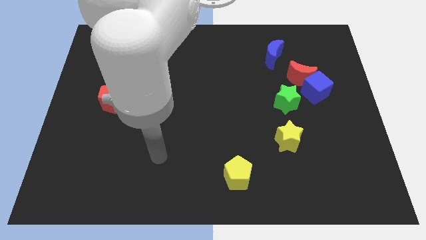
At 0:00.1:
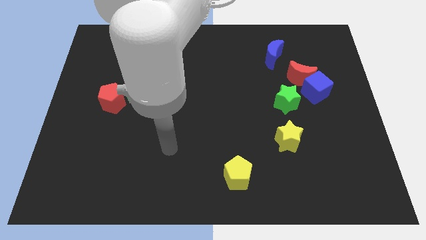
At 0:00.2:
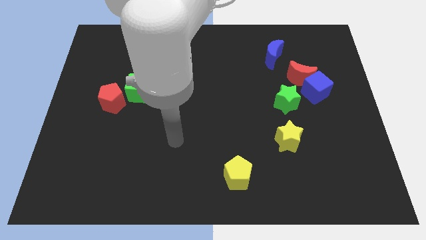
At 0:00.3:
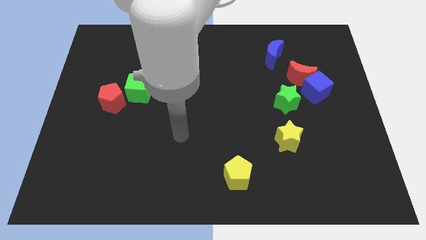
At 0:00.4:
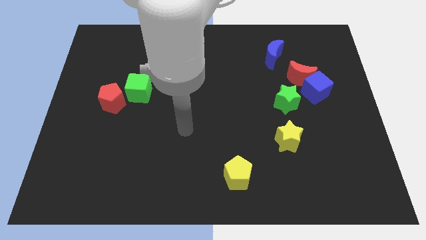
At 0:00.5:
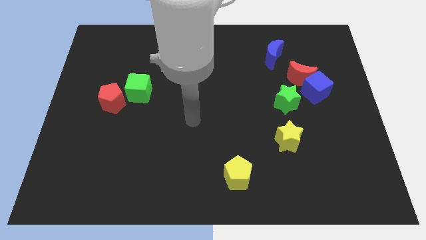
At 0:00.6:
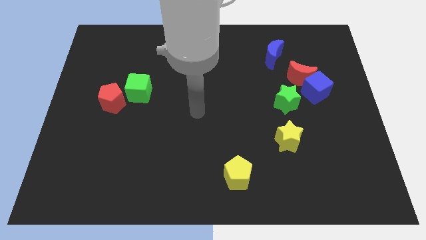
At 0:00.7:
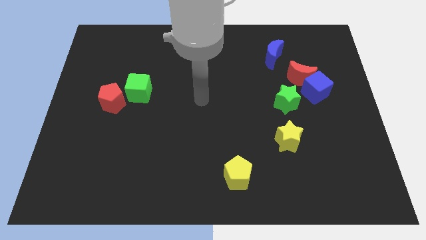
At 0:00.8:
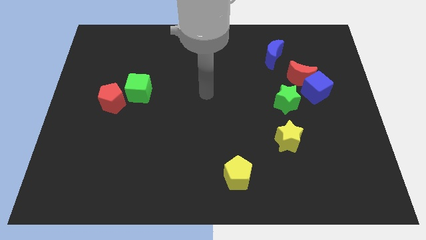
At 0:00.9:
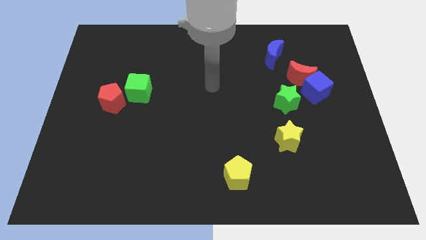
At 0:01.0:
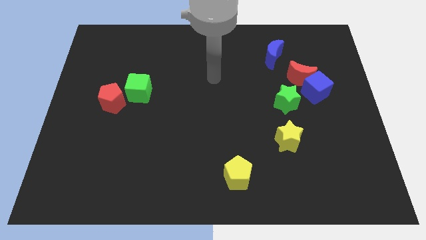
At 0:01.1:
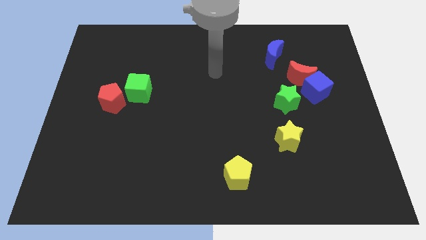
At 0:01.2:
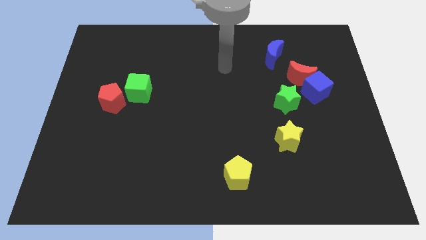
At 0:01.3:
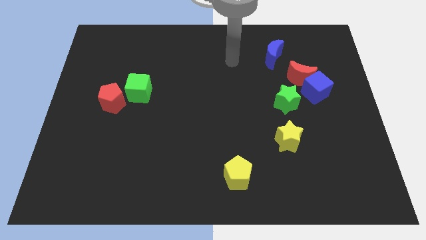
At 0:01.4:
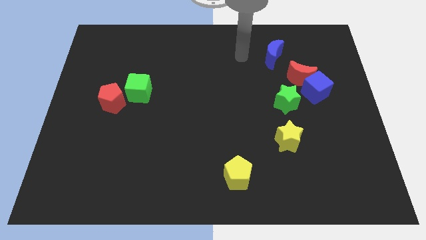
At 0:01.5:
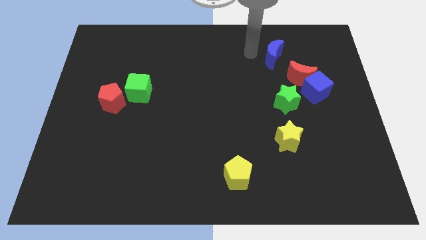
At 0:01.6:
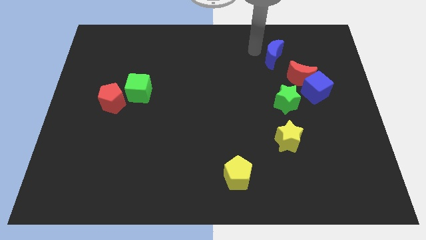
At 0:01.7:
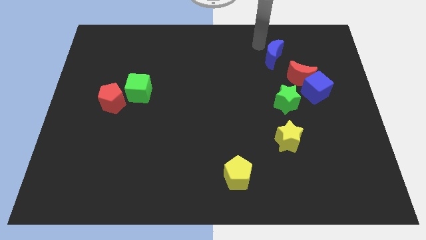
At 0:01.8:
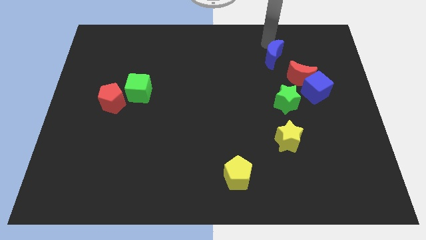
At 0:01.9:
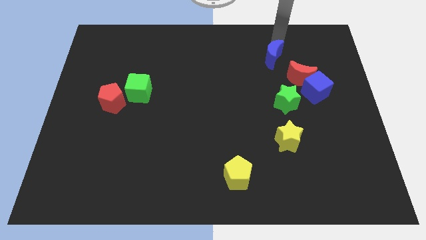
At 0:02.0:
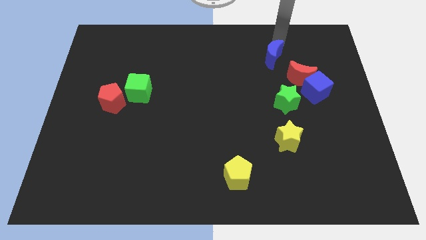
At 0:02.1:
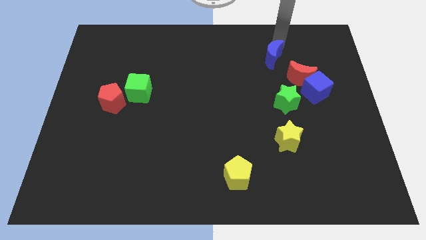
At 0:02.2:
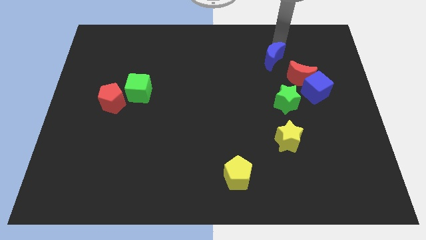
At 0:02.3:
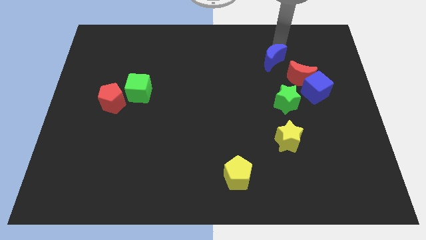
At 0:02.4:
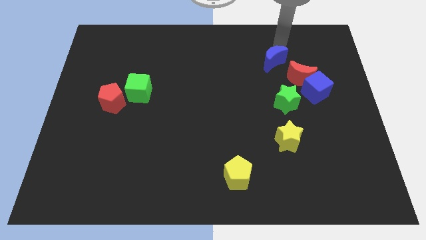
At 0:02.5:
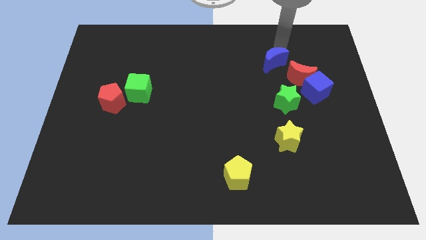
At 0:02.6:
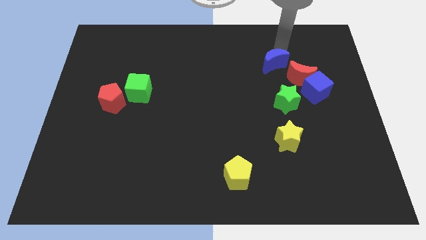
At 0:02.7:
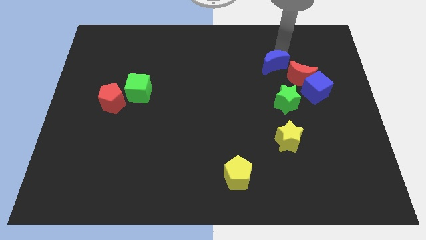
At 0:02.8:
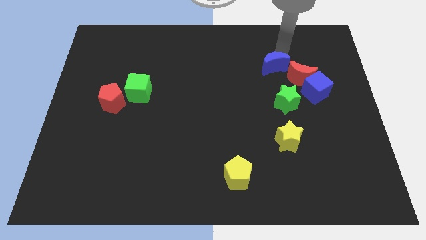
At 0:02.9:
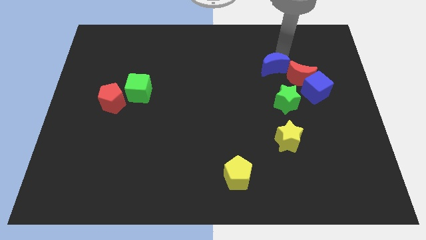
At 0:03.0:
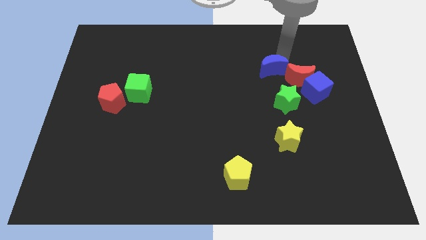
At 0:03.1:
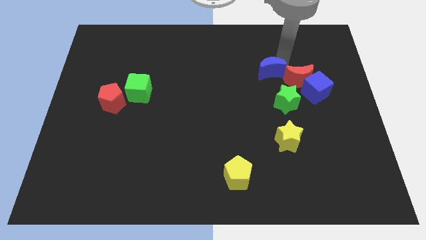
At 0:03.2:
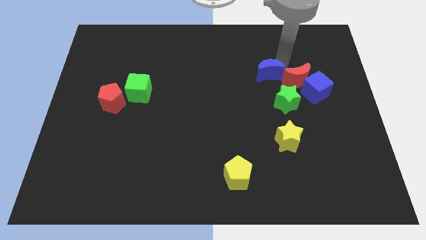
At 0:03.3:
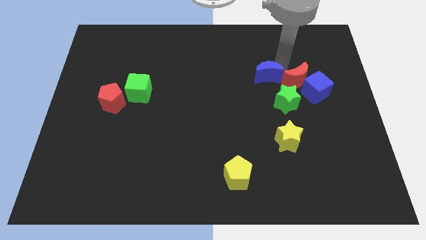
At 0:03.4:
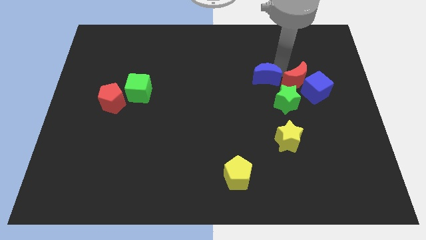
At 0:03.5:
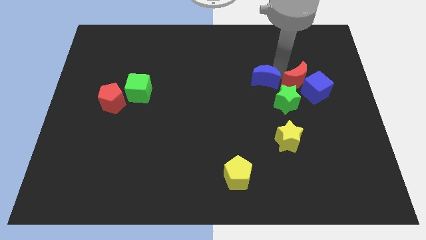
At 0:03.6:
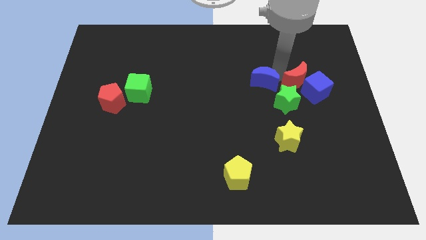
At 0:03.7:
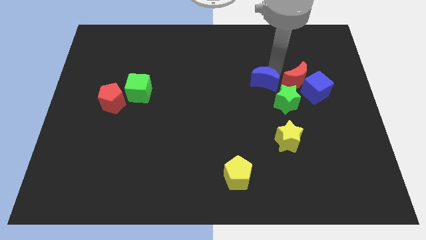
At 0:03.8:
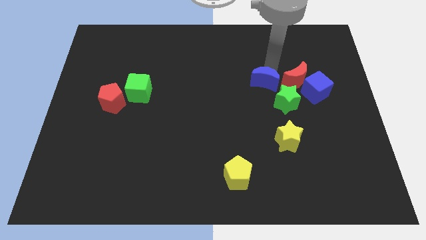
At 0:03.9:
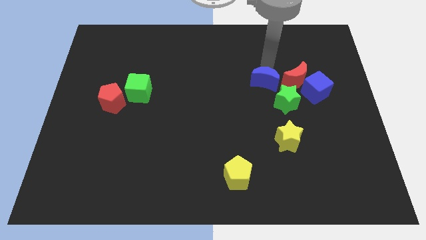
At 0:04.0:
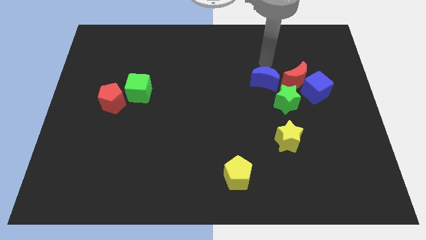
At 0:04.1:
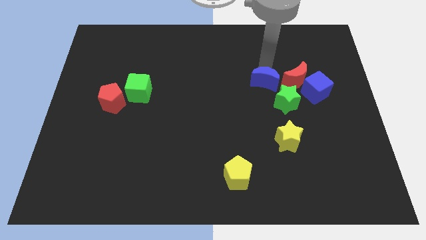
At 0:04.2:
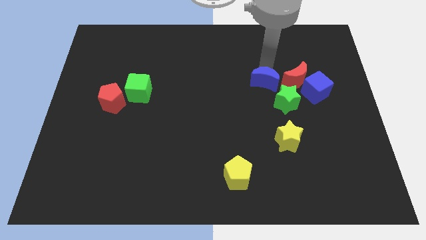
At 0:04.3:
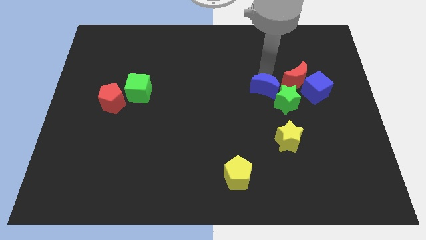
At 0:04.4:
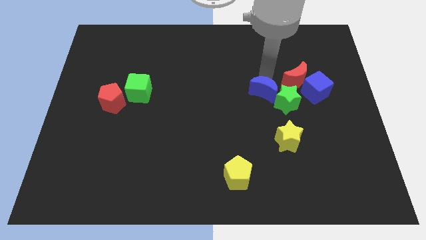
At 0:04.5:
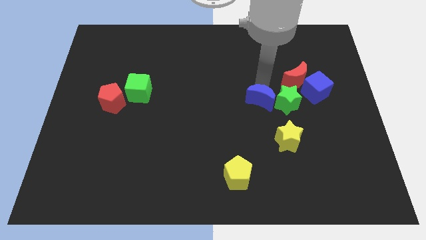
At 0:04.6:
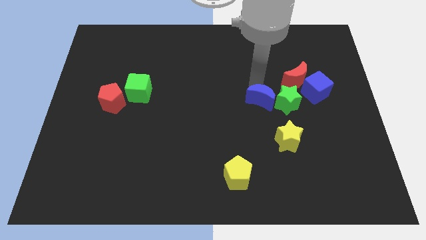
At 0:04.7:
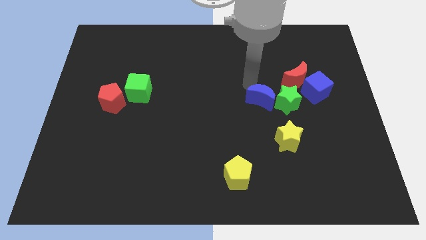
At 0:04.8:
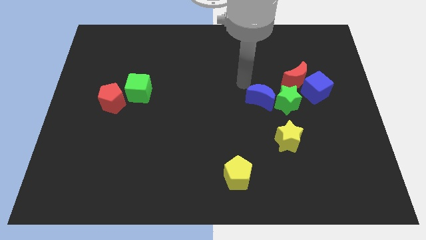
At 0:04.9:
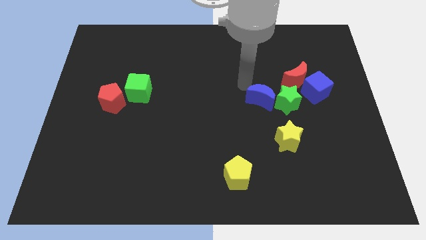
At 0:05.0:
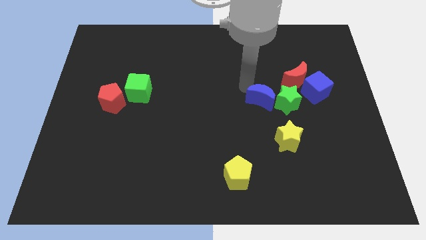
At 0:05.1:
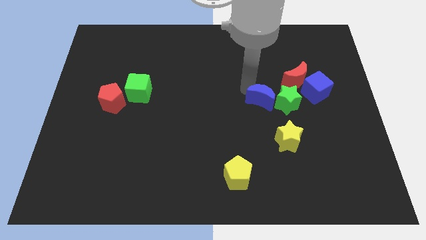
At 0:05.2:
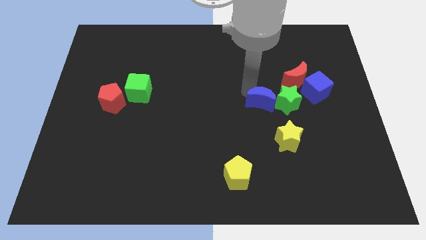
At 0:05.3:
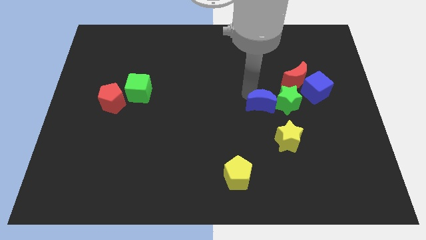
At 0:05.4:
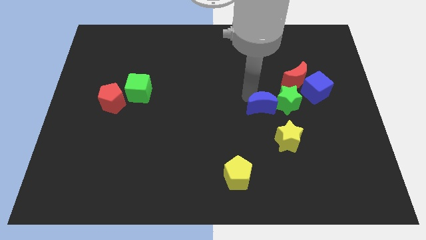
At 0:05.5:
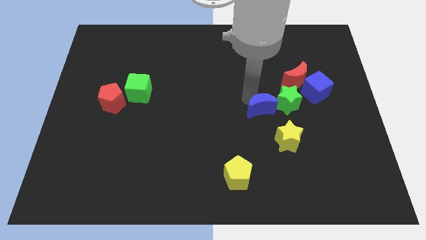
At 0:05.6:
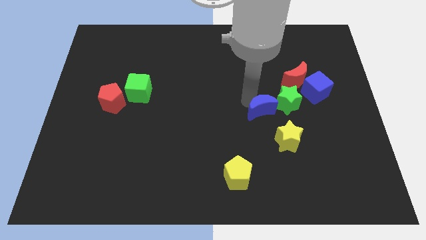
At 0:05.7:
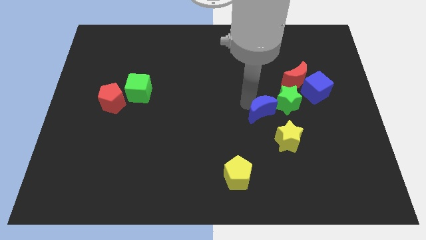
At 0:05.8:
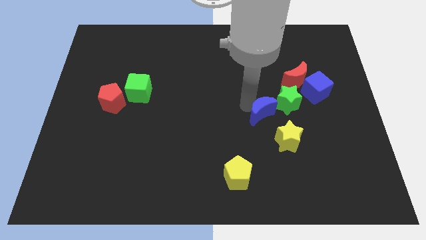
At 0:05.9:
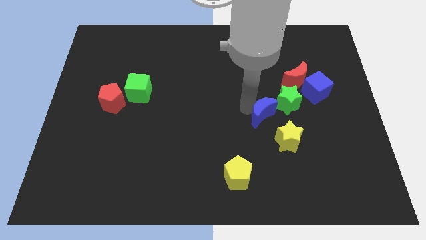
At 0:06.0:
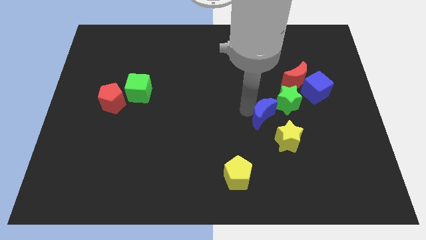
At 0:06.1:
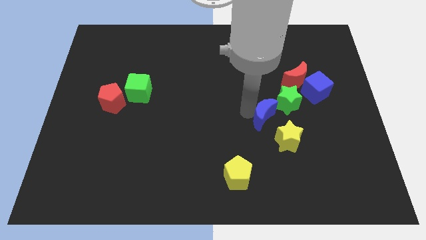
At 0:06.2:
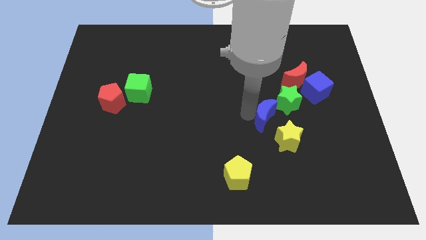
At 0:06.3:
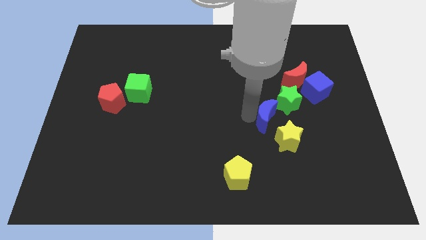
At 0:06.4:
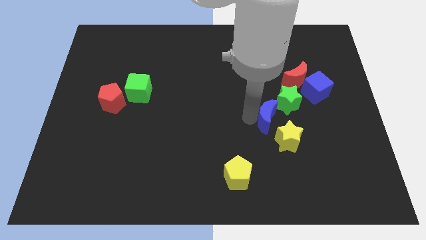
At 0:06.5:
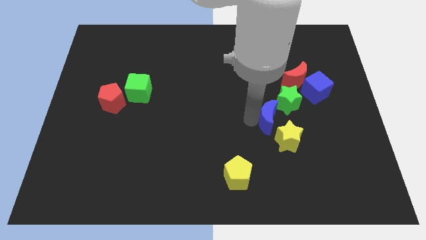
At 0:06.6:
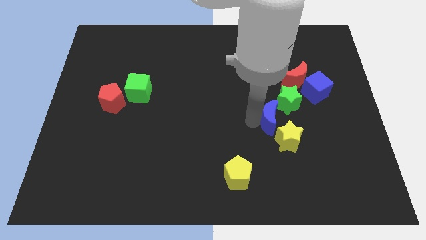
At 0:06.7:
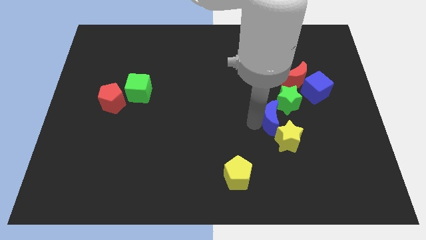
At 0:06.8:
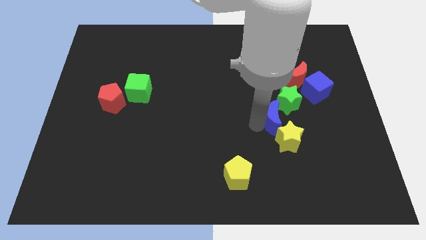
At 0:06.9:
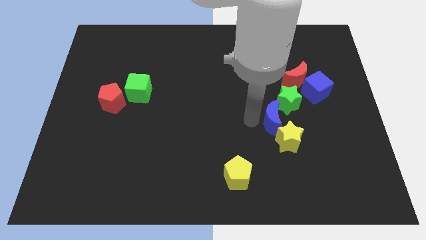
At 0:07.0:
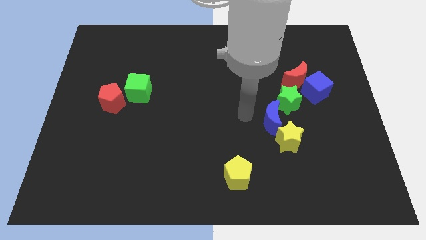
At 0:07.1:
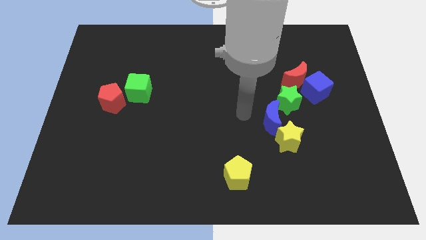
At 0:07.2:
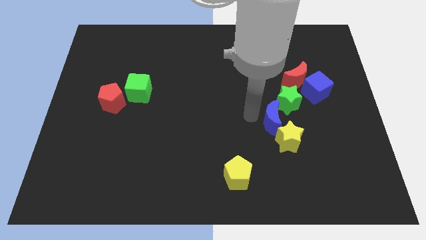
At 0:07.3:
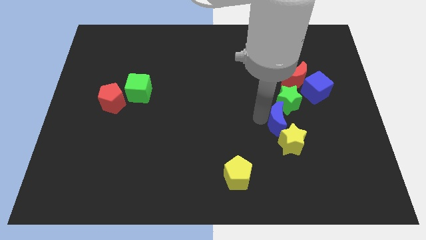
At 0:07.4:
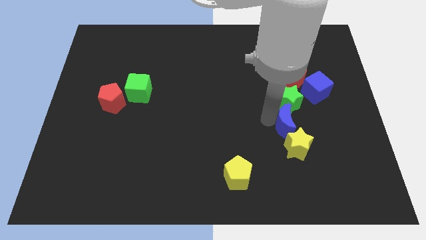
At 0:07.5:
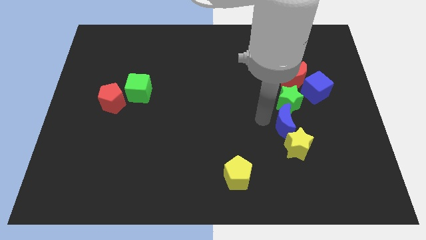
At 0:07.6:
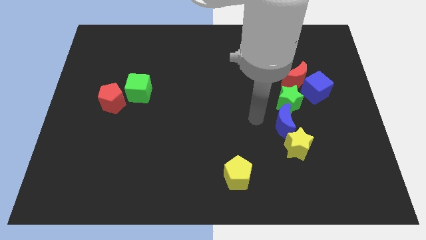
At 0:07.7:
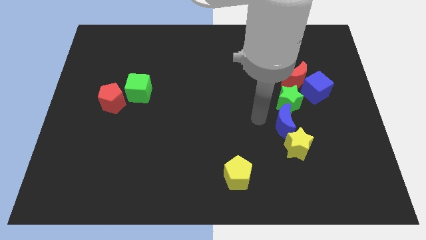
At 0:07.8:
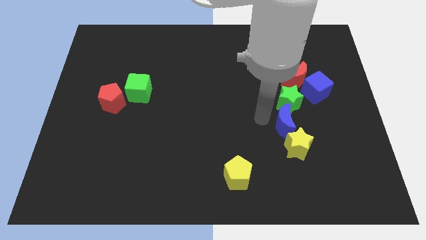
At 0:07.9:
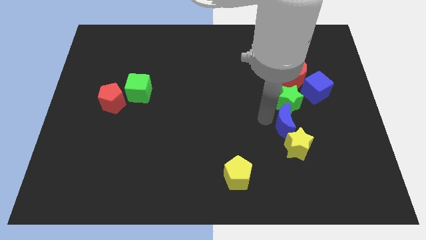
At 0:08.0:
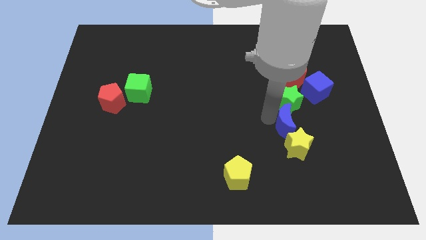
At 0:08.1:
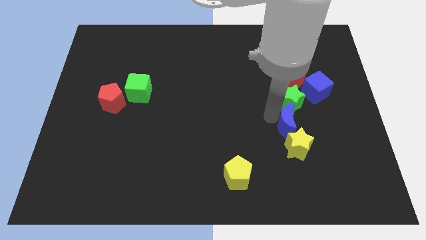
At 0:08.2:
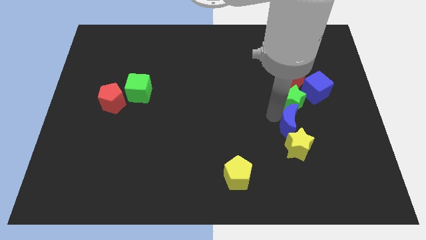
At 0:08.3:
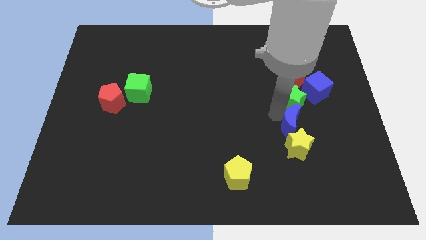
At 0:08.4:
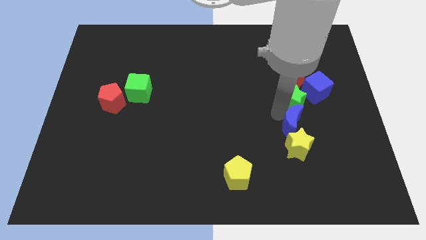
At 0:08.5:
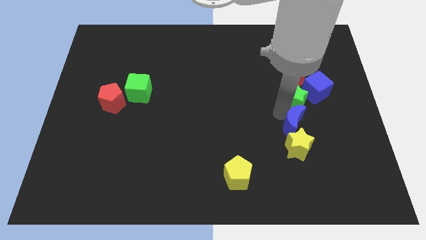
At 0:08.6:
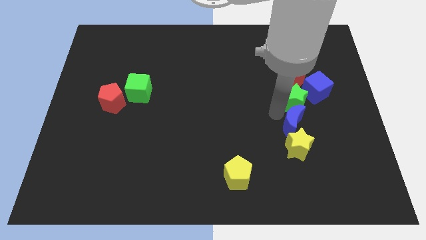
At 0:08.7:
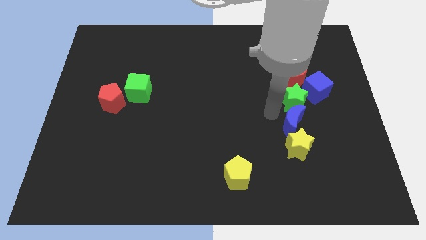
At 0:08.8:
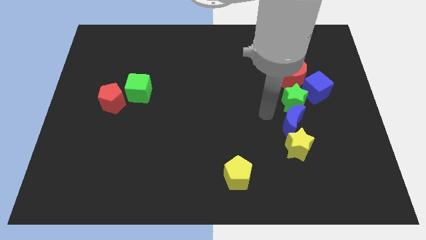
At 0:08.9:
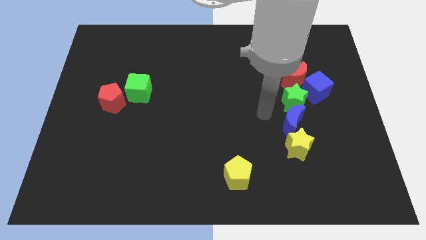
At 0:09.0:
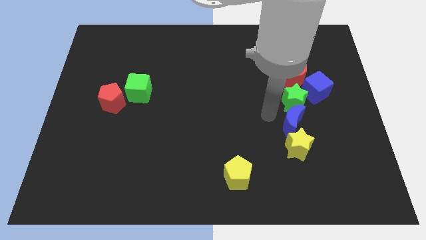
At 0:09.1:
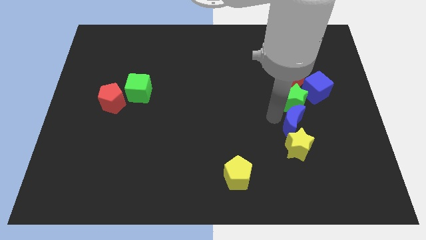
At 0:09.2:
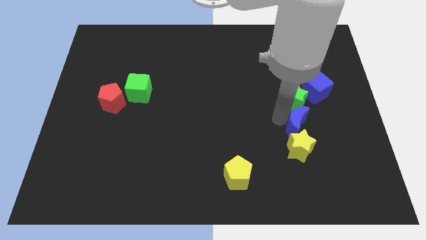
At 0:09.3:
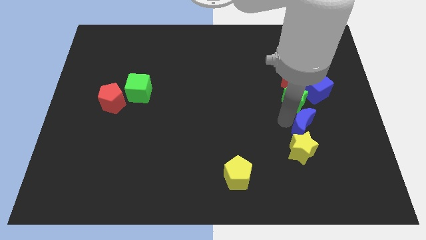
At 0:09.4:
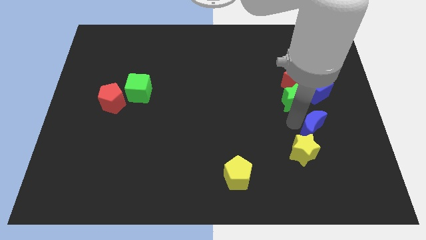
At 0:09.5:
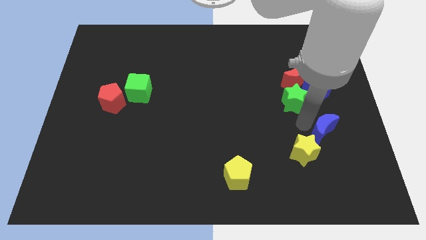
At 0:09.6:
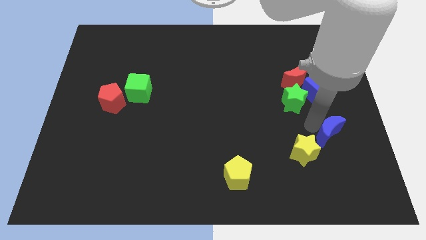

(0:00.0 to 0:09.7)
put the blue moon right of the yellow star
